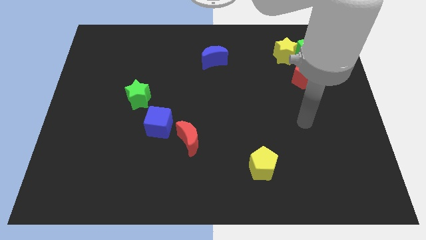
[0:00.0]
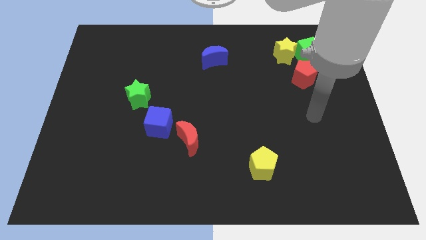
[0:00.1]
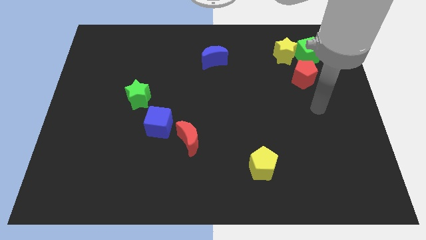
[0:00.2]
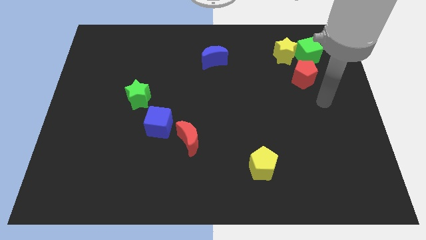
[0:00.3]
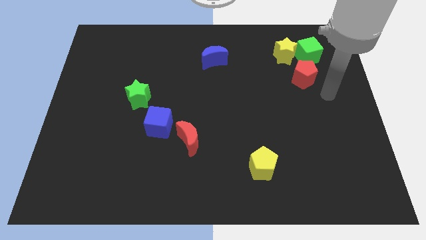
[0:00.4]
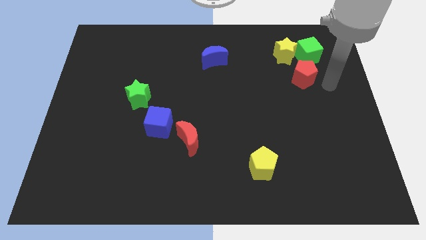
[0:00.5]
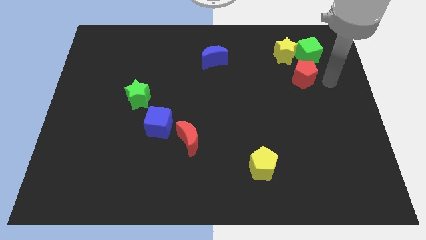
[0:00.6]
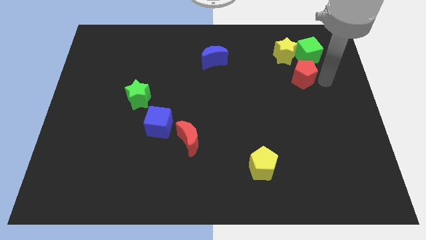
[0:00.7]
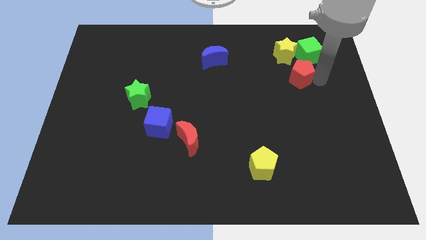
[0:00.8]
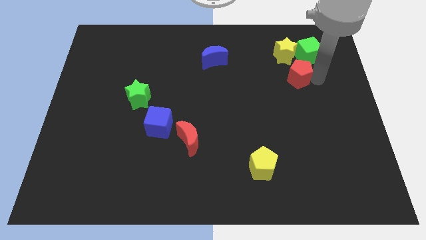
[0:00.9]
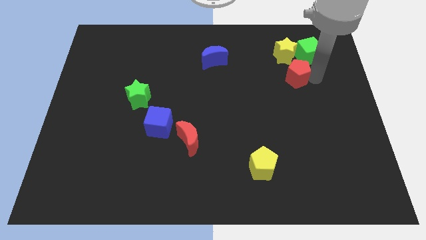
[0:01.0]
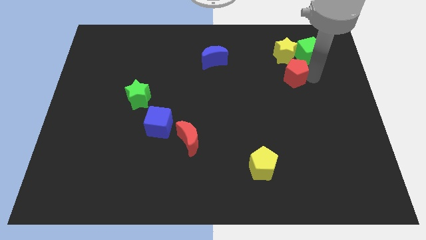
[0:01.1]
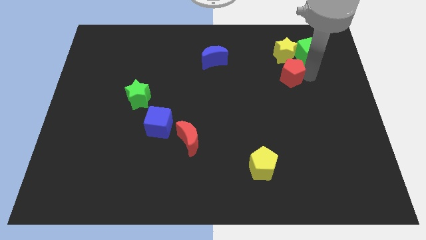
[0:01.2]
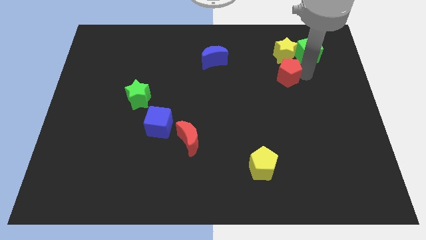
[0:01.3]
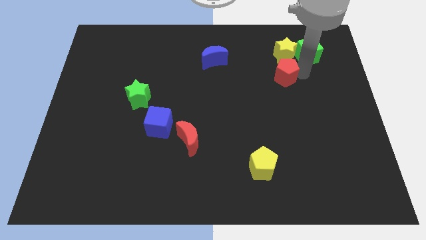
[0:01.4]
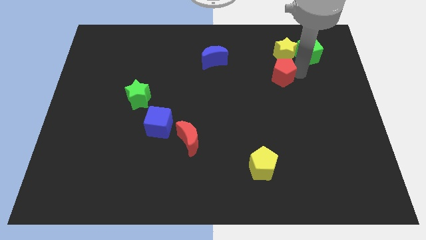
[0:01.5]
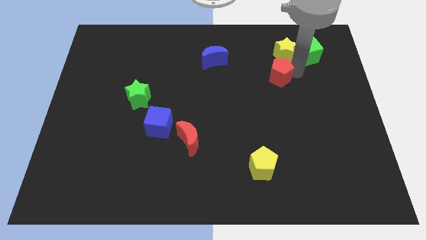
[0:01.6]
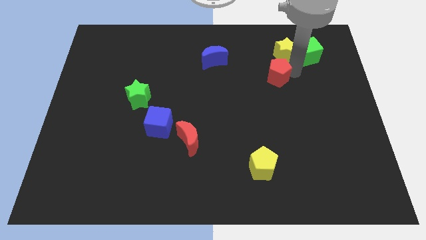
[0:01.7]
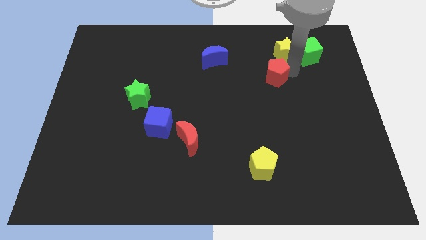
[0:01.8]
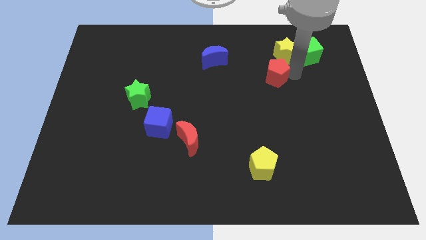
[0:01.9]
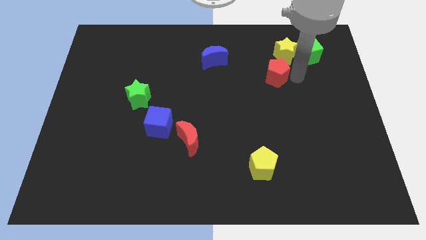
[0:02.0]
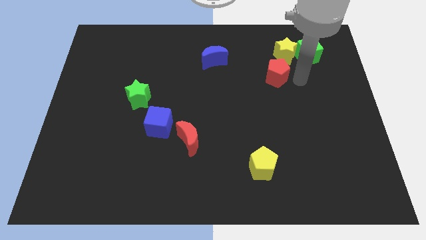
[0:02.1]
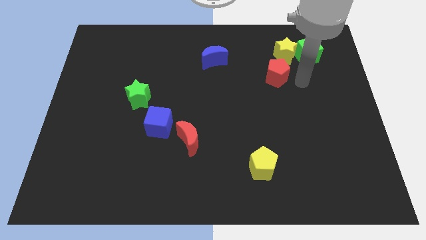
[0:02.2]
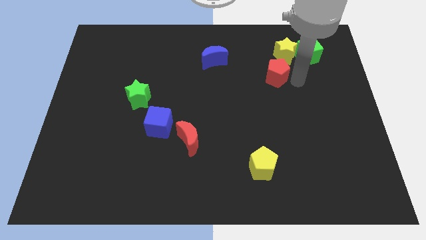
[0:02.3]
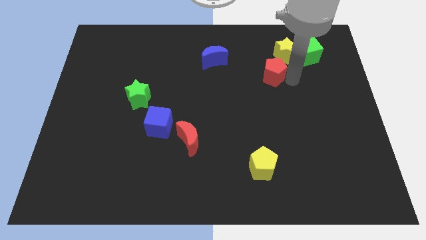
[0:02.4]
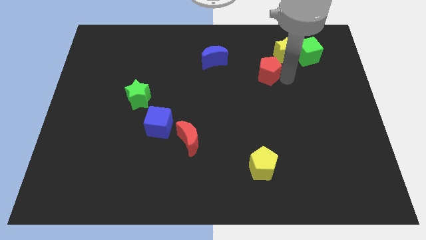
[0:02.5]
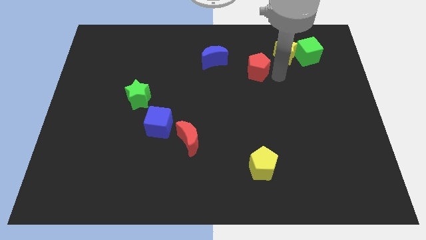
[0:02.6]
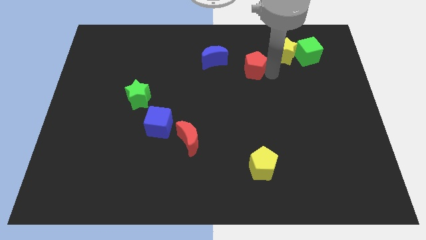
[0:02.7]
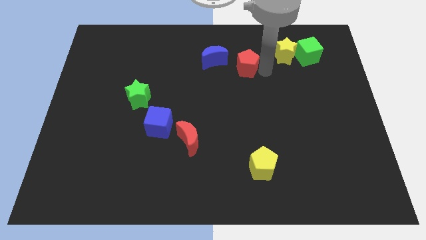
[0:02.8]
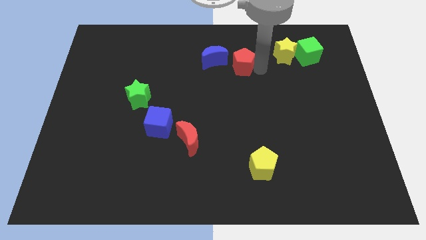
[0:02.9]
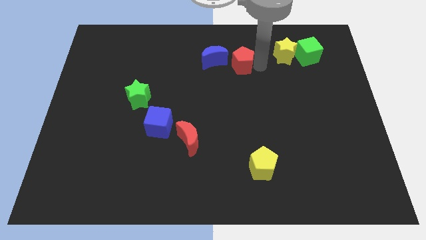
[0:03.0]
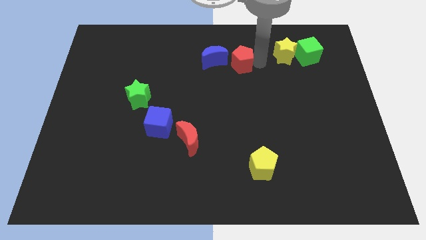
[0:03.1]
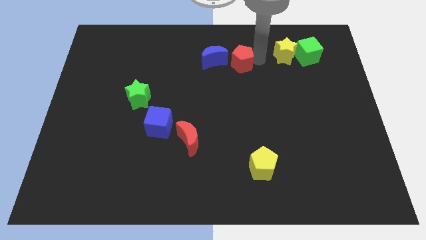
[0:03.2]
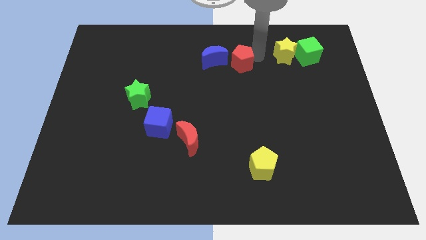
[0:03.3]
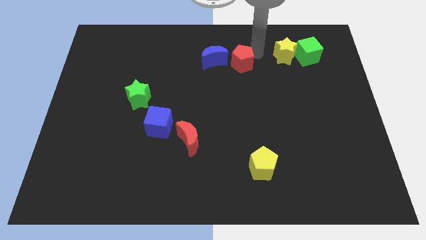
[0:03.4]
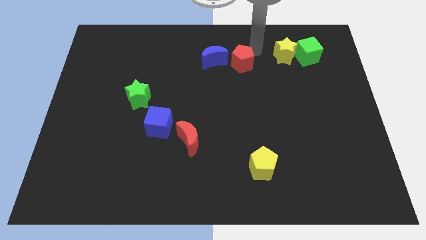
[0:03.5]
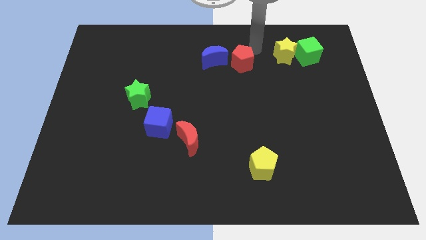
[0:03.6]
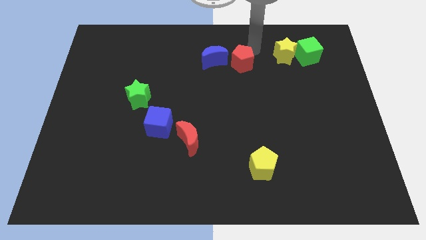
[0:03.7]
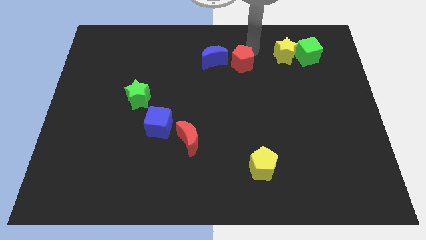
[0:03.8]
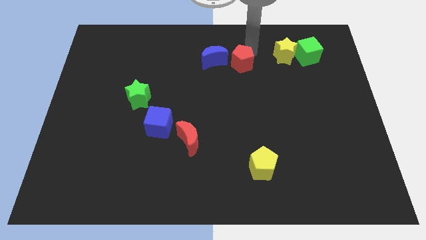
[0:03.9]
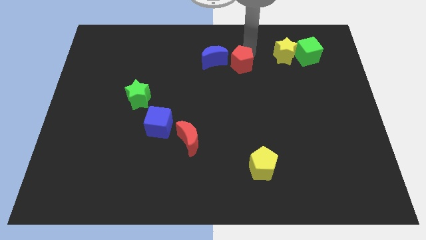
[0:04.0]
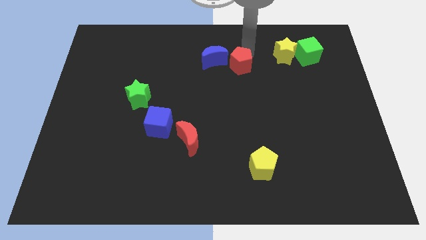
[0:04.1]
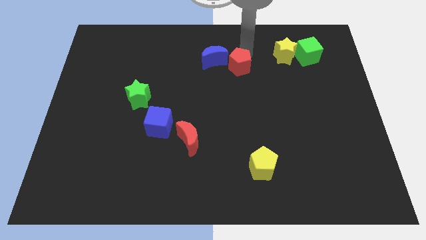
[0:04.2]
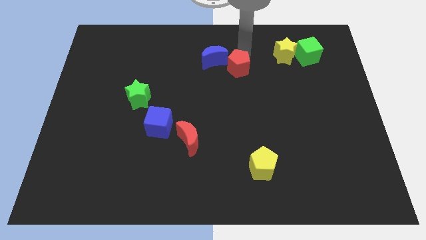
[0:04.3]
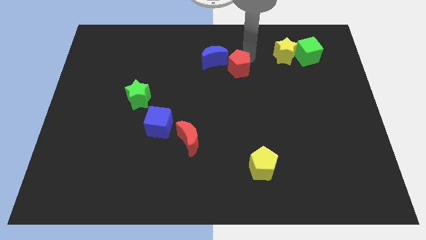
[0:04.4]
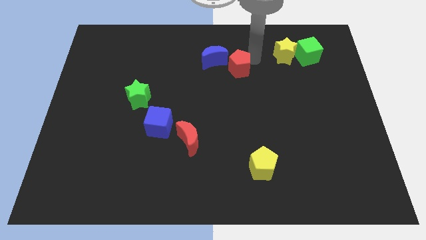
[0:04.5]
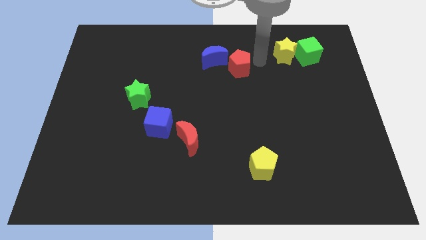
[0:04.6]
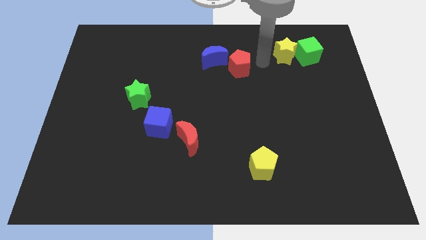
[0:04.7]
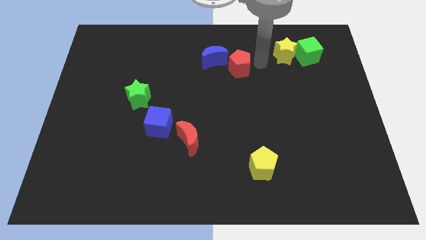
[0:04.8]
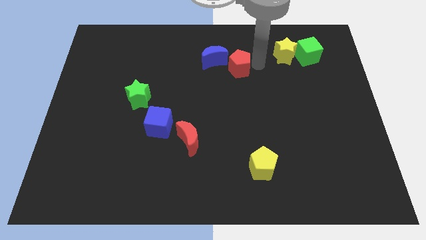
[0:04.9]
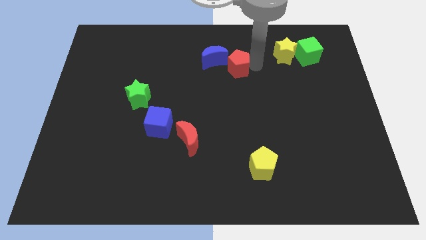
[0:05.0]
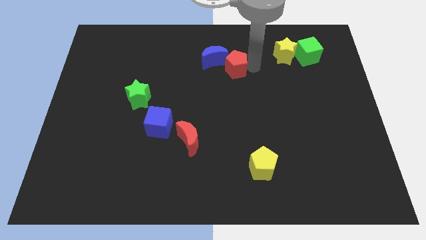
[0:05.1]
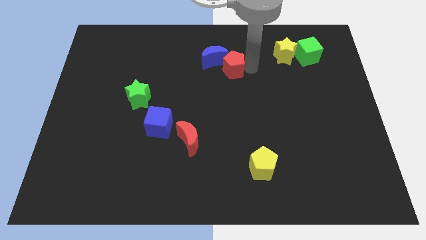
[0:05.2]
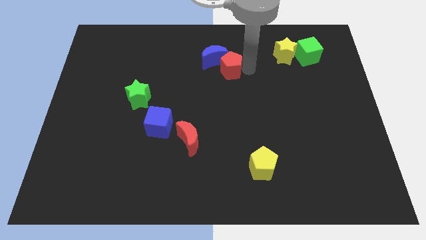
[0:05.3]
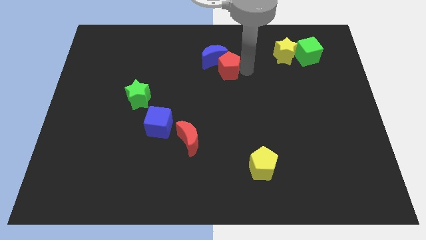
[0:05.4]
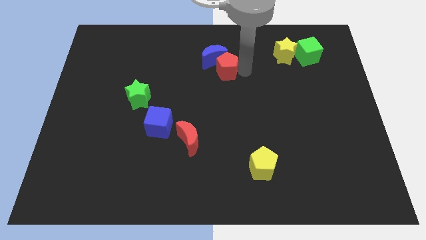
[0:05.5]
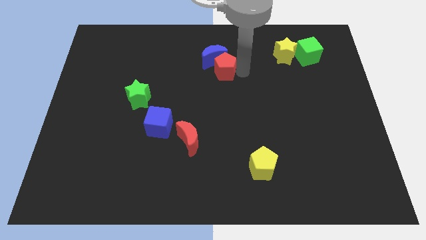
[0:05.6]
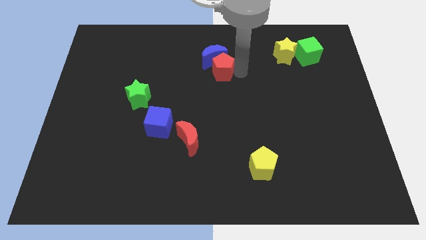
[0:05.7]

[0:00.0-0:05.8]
push the red pentagon to the left

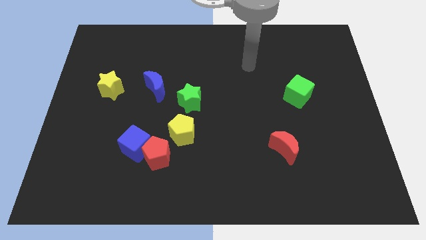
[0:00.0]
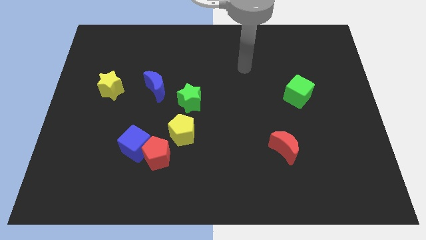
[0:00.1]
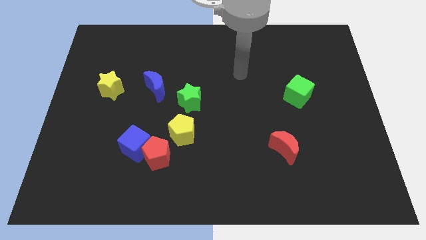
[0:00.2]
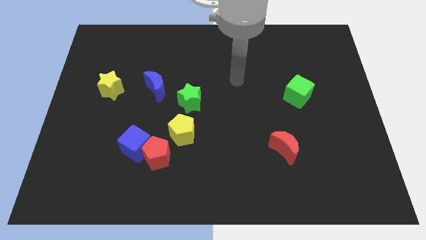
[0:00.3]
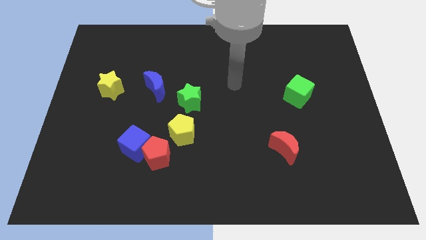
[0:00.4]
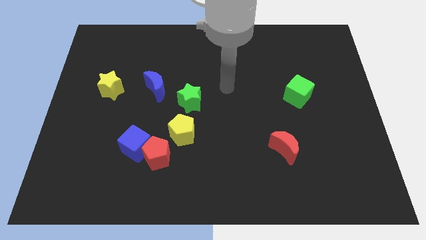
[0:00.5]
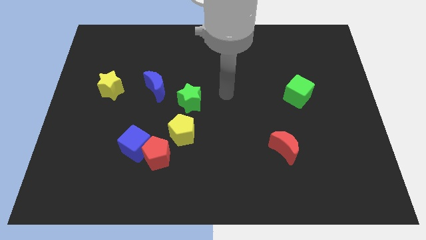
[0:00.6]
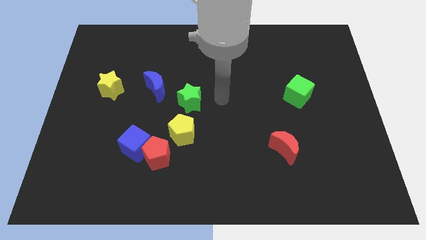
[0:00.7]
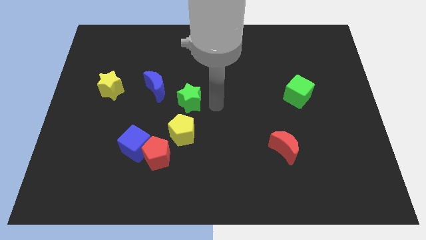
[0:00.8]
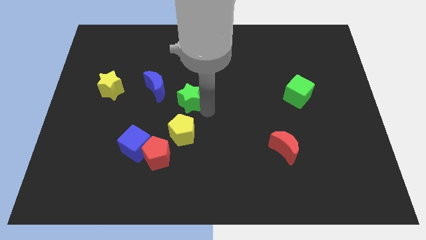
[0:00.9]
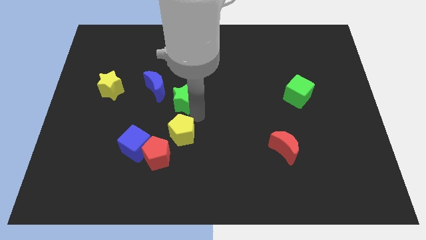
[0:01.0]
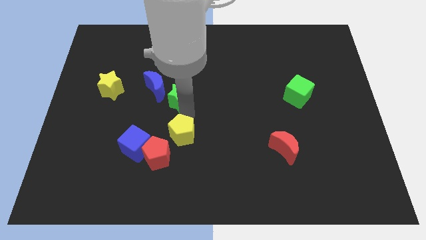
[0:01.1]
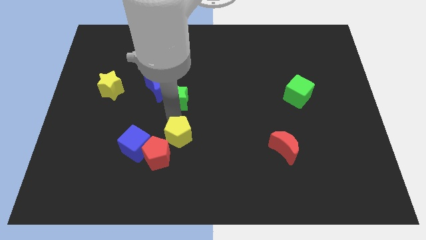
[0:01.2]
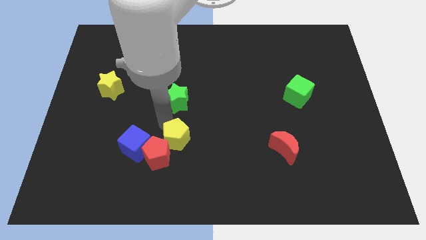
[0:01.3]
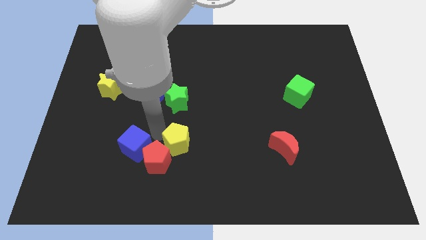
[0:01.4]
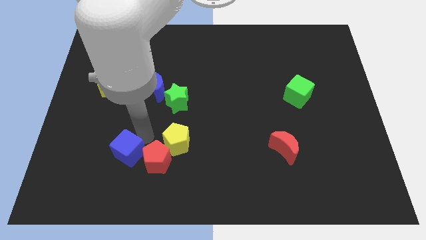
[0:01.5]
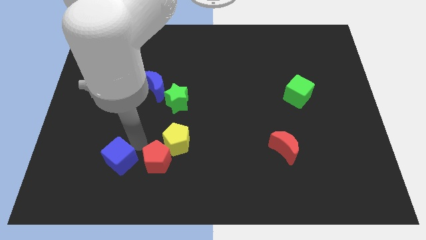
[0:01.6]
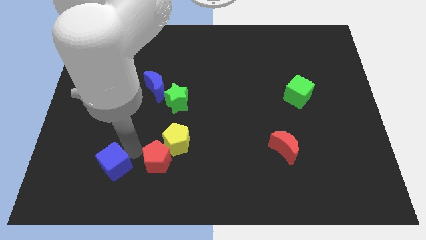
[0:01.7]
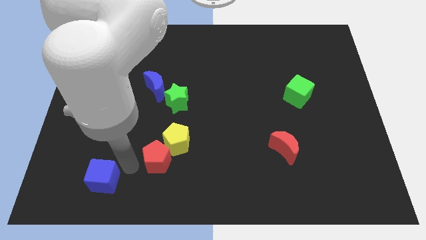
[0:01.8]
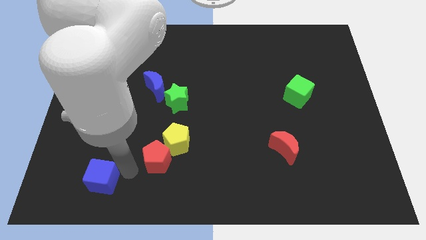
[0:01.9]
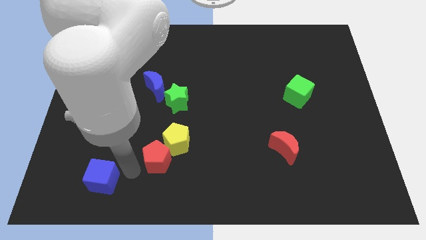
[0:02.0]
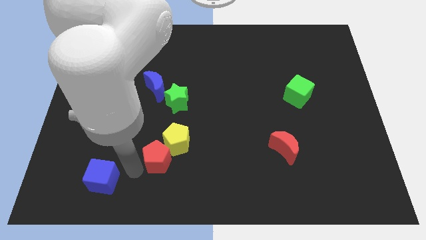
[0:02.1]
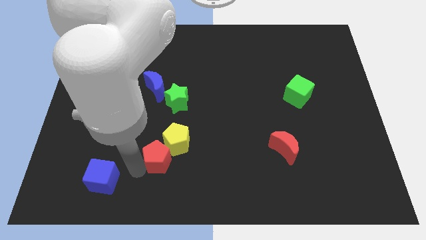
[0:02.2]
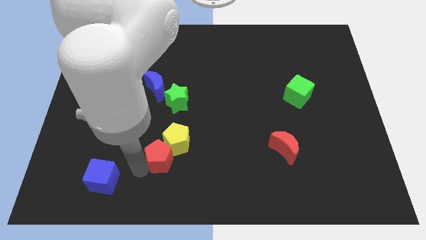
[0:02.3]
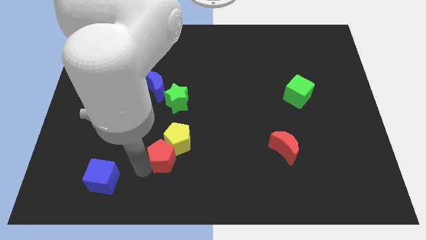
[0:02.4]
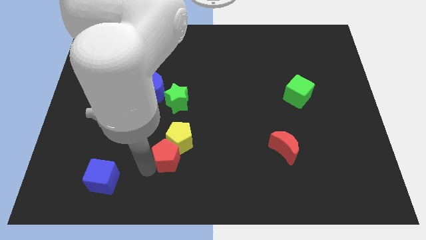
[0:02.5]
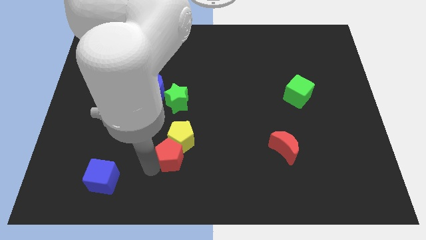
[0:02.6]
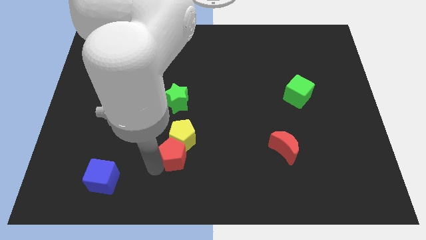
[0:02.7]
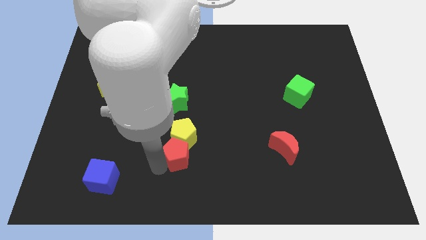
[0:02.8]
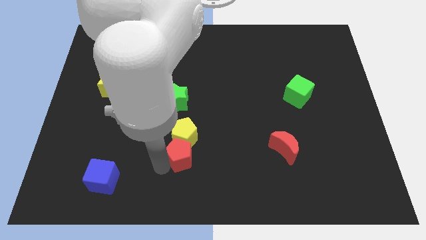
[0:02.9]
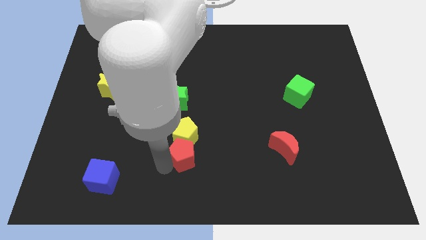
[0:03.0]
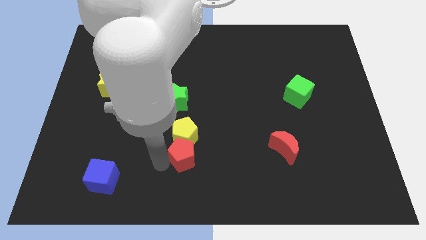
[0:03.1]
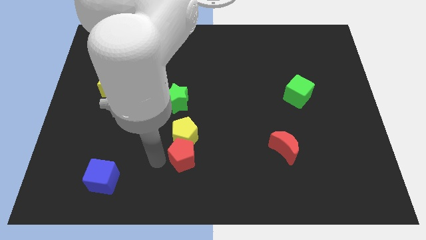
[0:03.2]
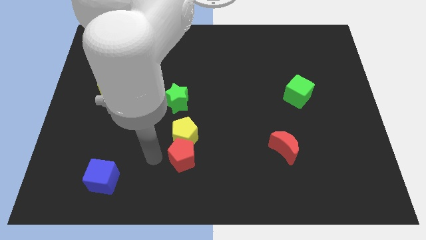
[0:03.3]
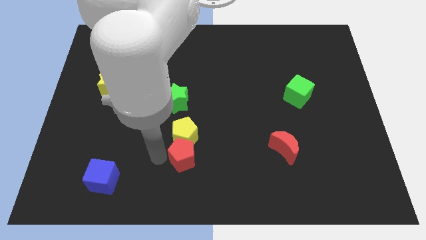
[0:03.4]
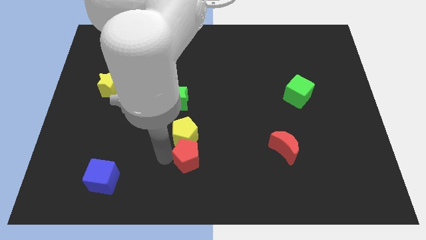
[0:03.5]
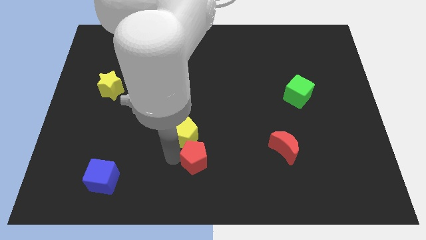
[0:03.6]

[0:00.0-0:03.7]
slightly move the red pentagon to the right
